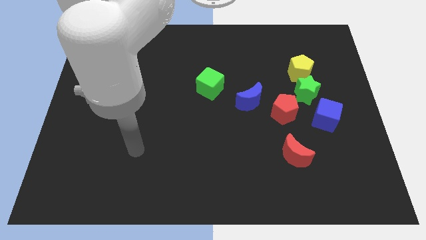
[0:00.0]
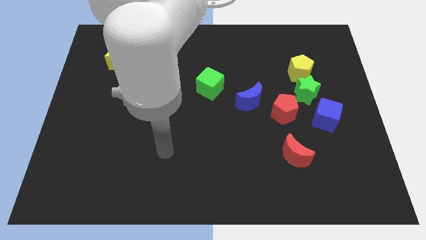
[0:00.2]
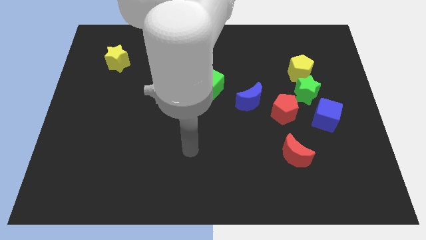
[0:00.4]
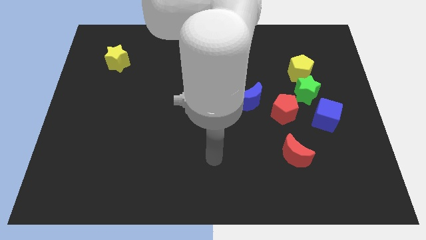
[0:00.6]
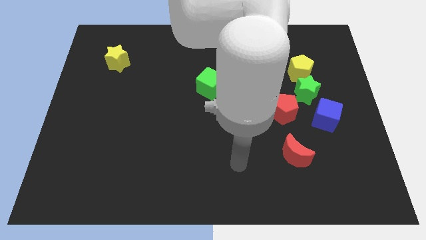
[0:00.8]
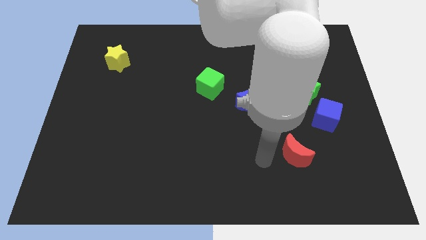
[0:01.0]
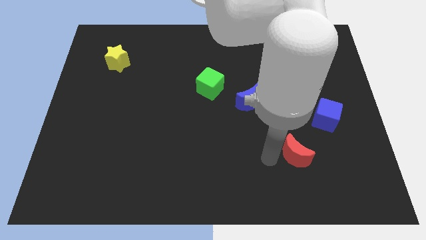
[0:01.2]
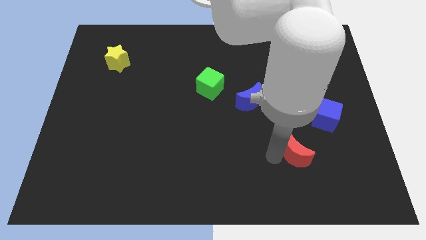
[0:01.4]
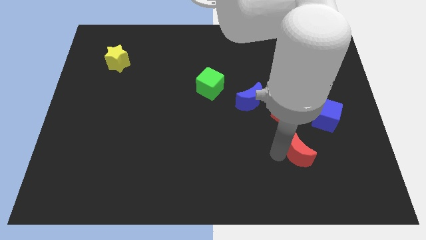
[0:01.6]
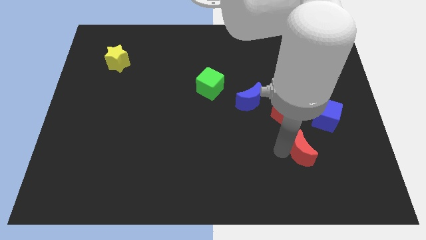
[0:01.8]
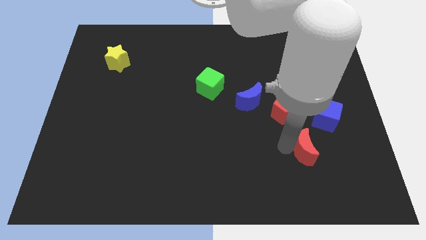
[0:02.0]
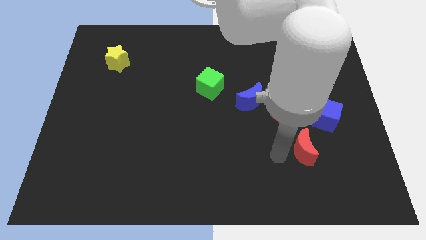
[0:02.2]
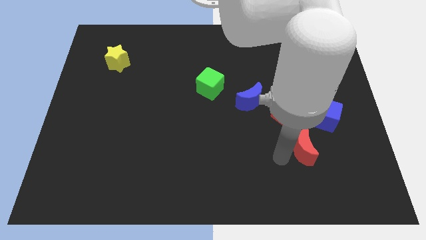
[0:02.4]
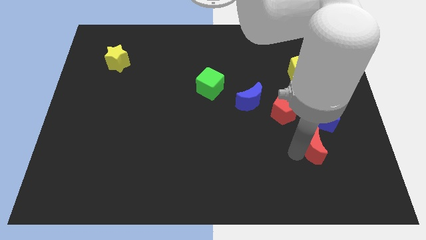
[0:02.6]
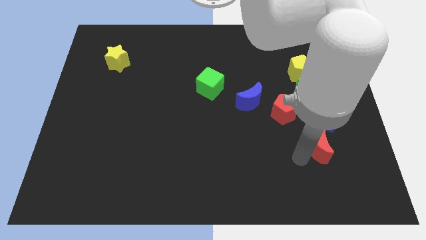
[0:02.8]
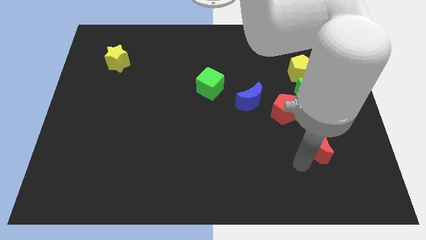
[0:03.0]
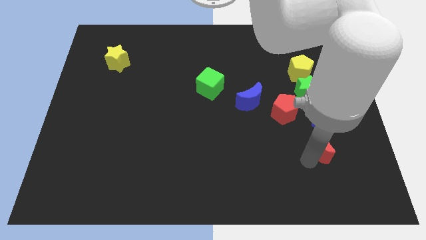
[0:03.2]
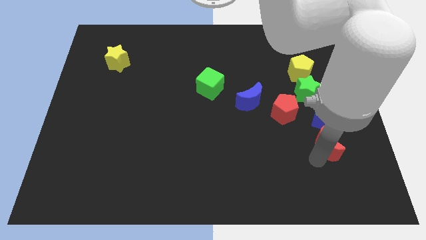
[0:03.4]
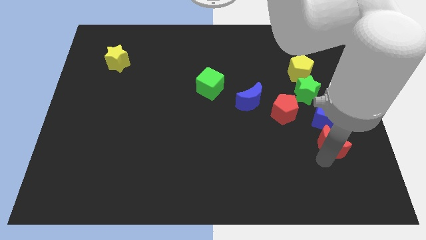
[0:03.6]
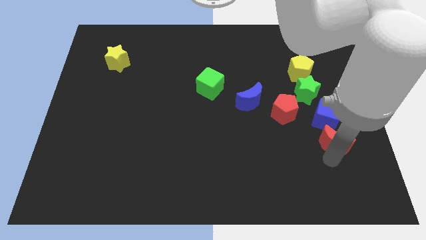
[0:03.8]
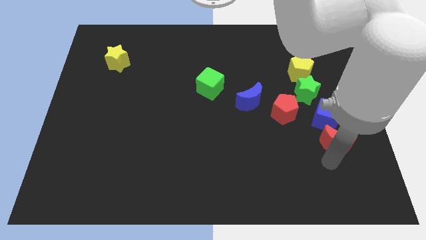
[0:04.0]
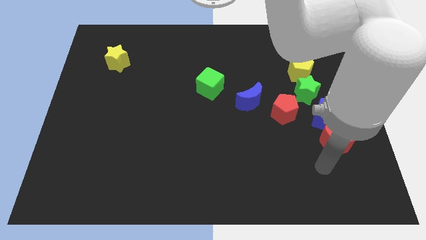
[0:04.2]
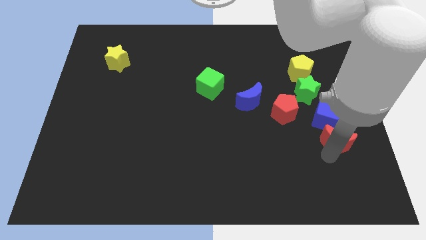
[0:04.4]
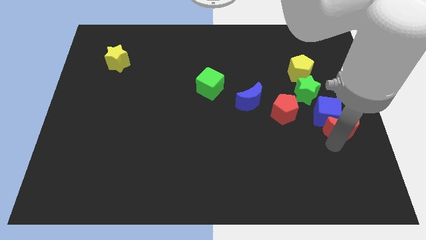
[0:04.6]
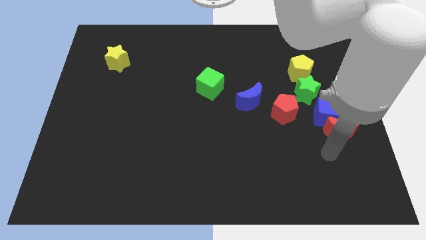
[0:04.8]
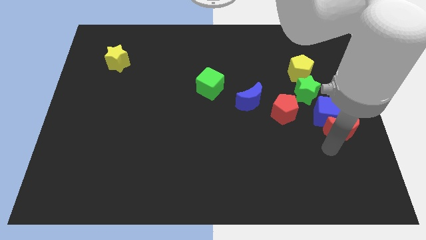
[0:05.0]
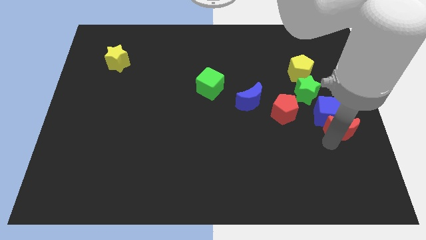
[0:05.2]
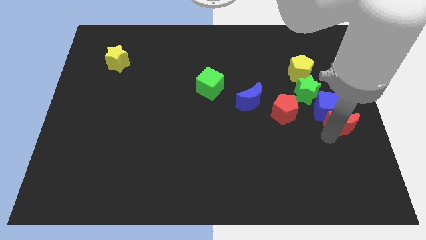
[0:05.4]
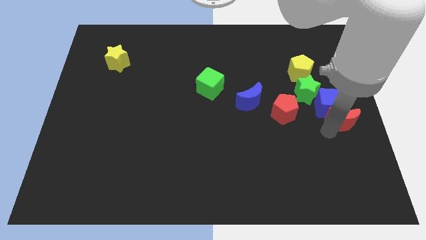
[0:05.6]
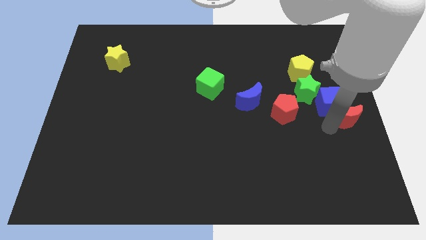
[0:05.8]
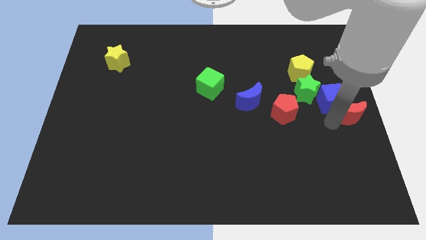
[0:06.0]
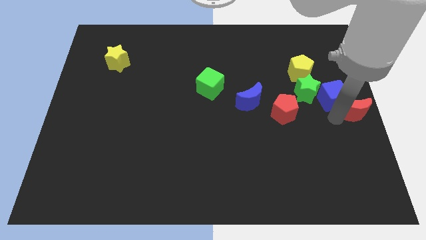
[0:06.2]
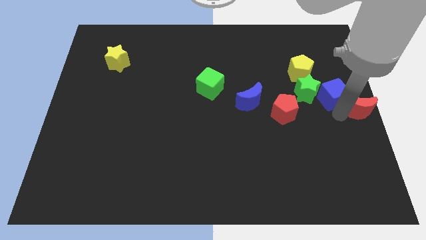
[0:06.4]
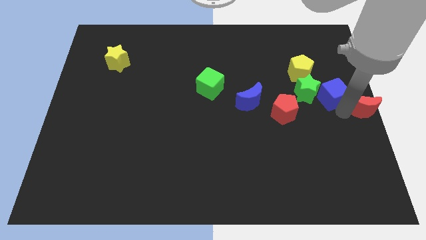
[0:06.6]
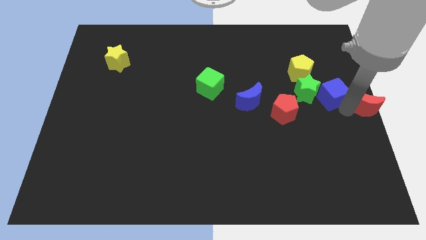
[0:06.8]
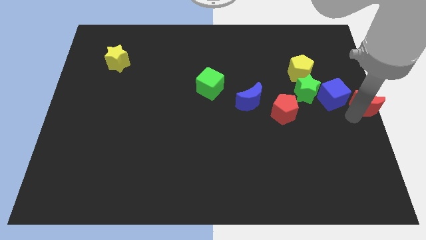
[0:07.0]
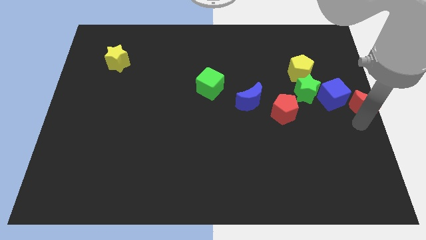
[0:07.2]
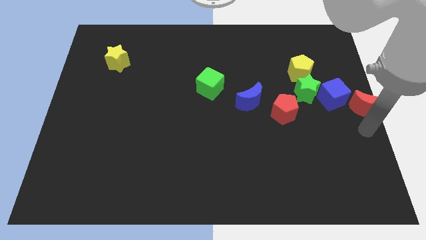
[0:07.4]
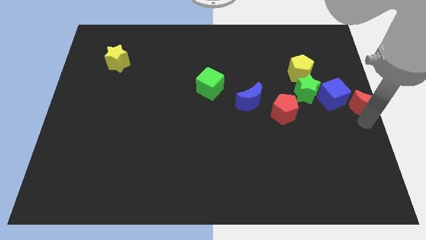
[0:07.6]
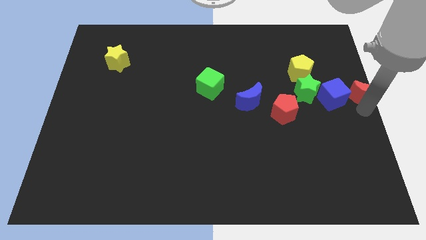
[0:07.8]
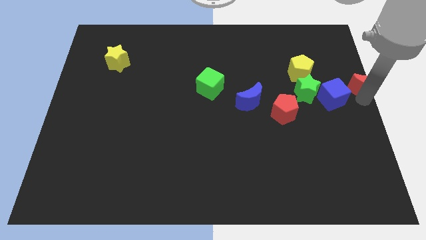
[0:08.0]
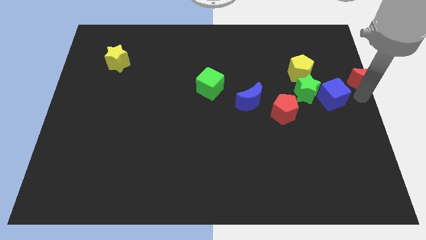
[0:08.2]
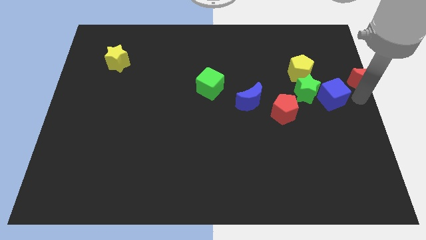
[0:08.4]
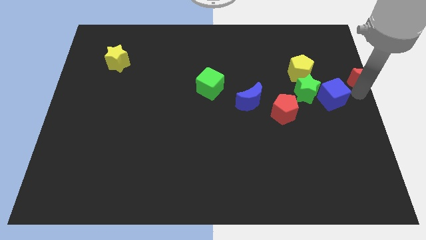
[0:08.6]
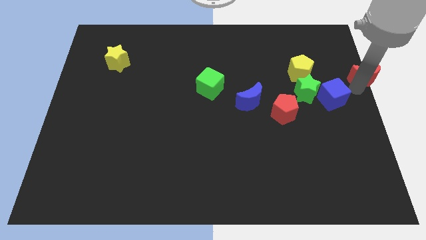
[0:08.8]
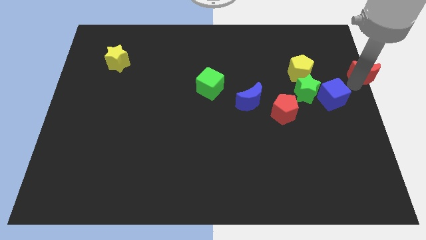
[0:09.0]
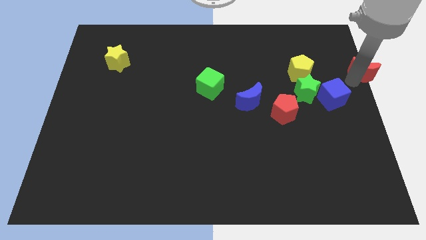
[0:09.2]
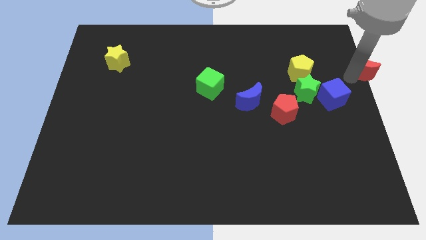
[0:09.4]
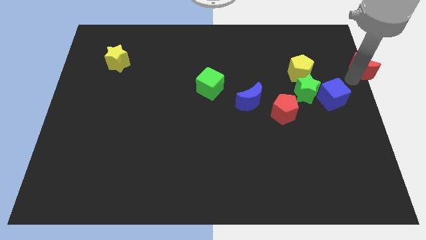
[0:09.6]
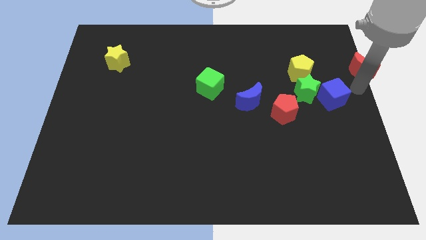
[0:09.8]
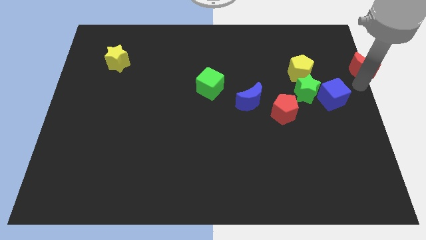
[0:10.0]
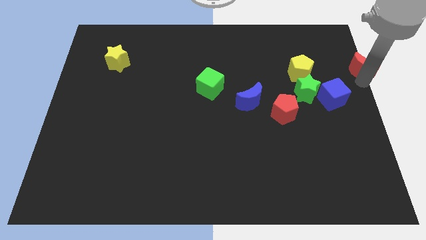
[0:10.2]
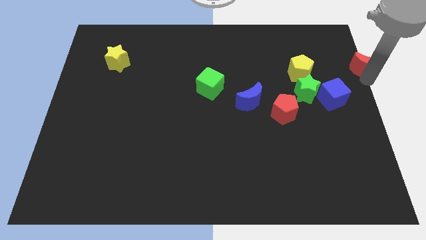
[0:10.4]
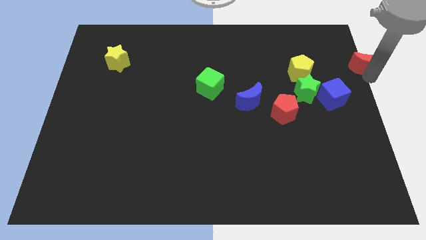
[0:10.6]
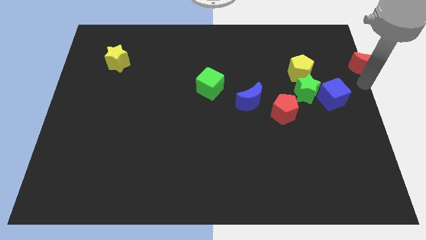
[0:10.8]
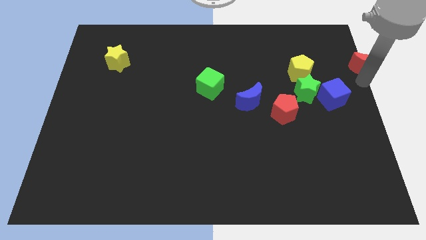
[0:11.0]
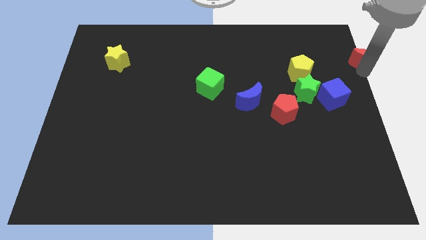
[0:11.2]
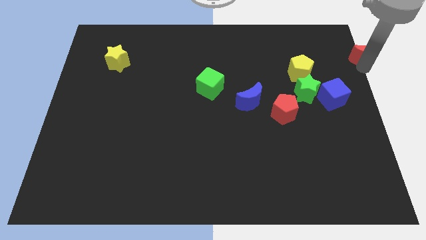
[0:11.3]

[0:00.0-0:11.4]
slide the red moon to the upper right corner
